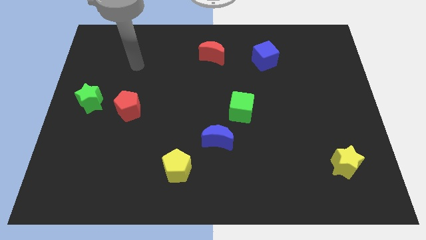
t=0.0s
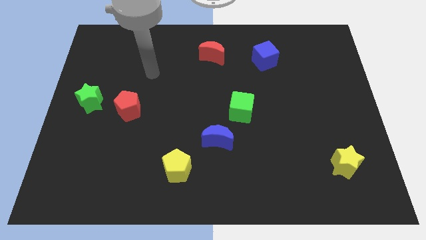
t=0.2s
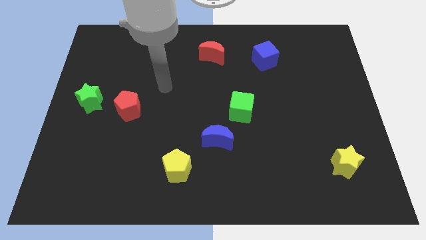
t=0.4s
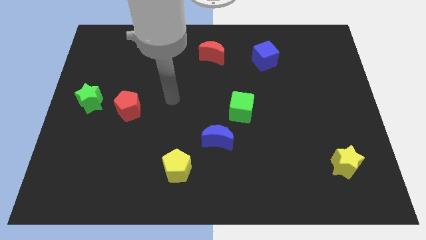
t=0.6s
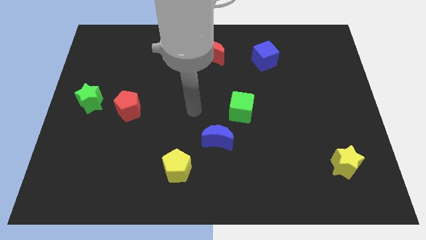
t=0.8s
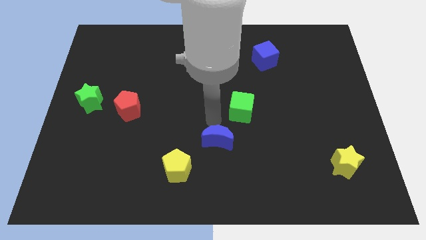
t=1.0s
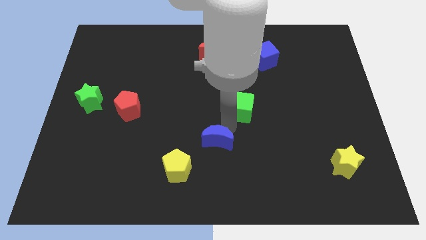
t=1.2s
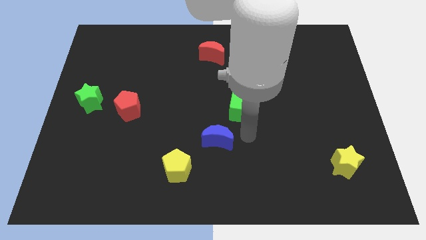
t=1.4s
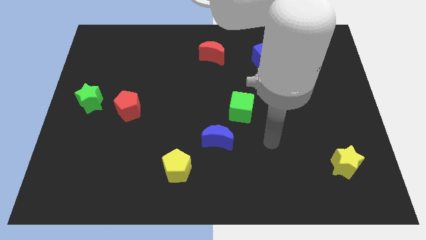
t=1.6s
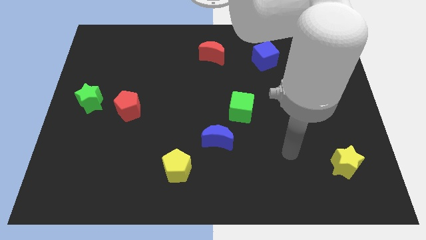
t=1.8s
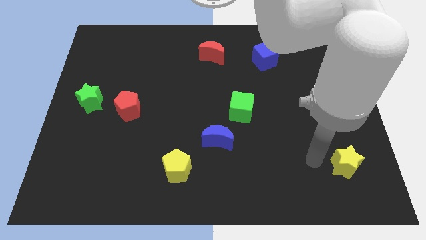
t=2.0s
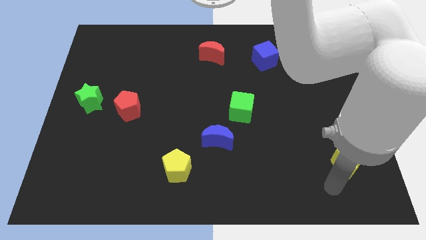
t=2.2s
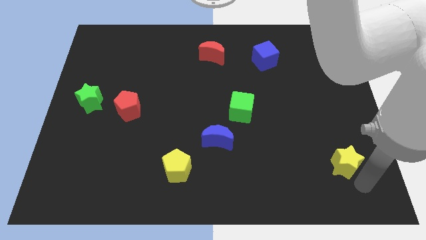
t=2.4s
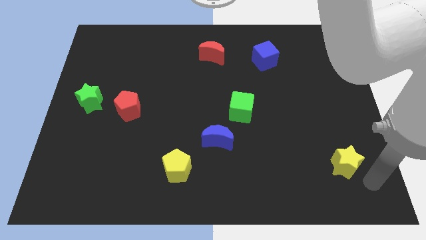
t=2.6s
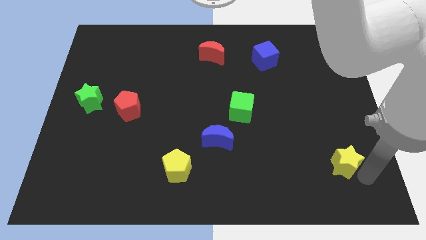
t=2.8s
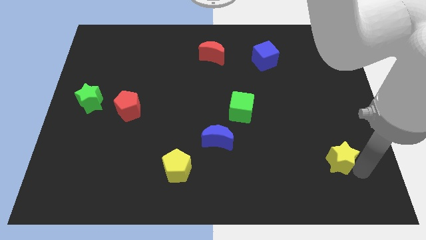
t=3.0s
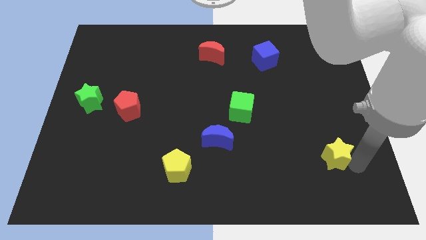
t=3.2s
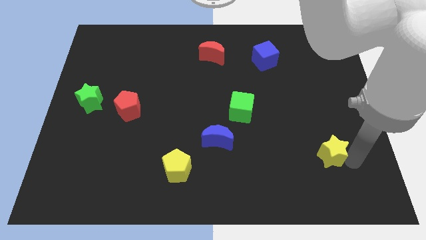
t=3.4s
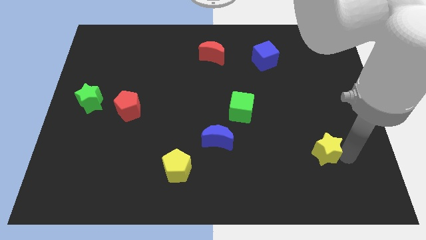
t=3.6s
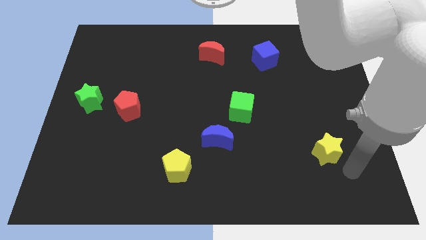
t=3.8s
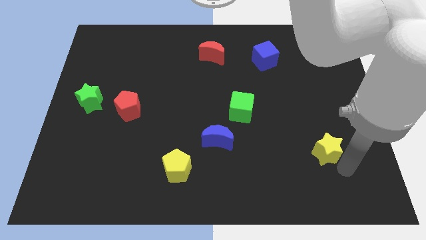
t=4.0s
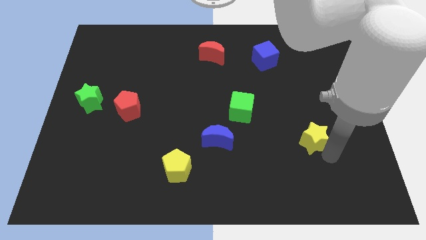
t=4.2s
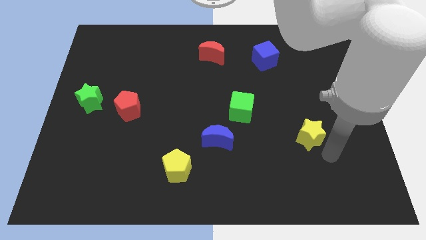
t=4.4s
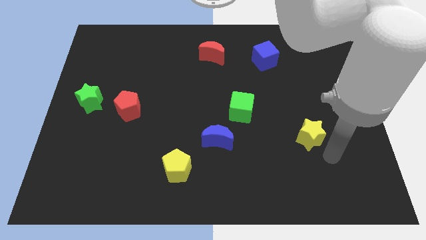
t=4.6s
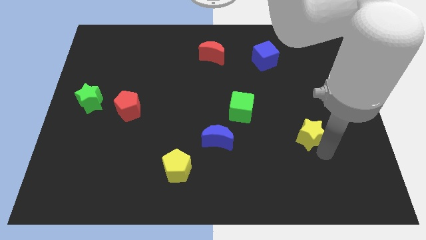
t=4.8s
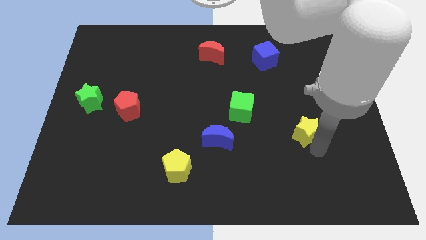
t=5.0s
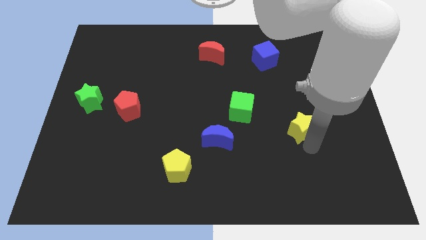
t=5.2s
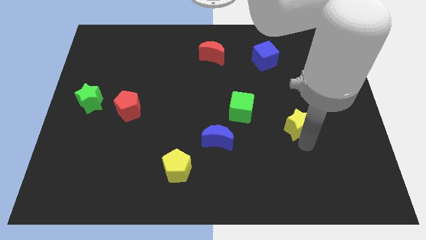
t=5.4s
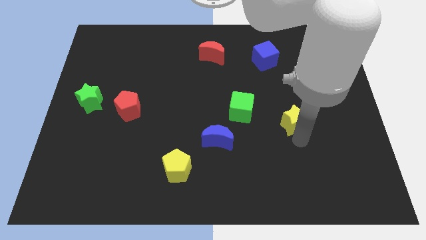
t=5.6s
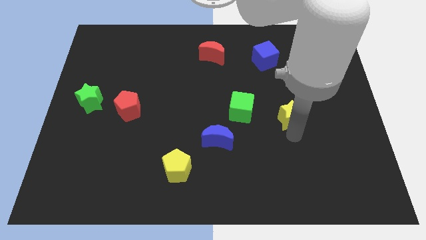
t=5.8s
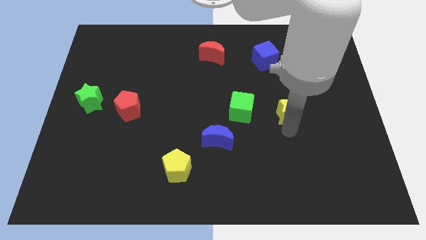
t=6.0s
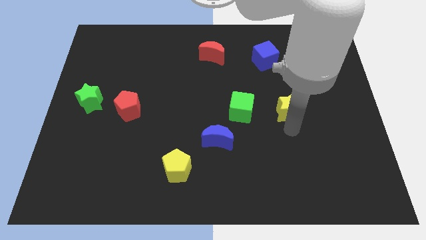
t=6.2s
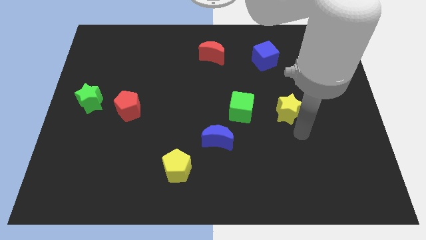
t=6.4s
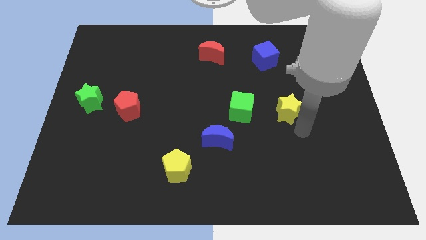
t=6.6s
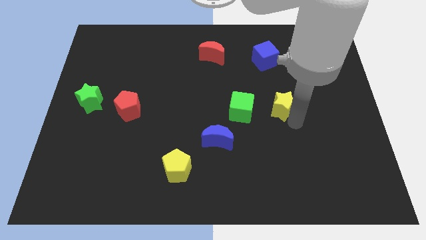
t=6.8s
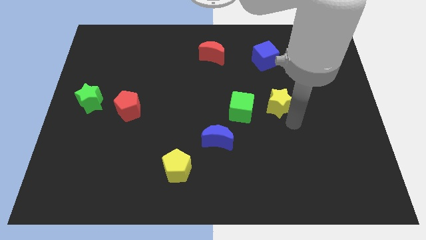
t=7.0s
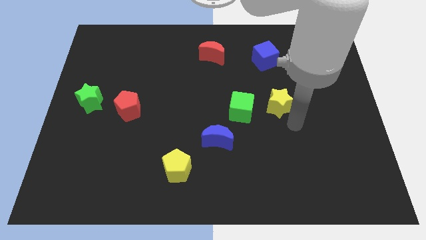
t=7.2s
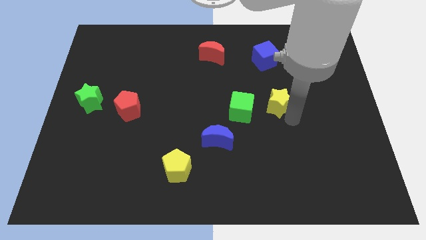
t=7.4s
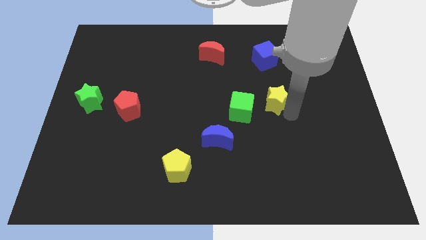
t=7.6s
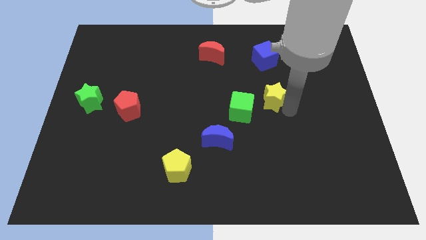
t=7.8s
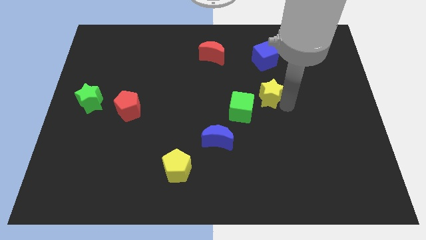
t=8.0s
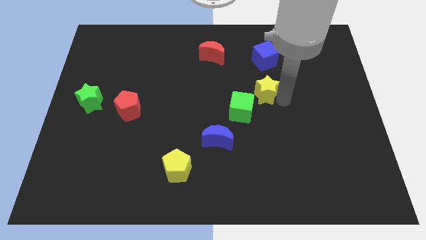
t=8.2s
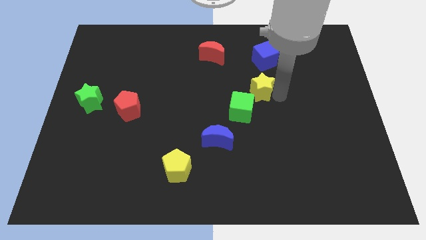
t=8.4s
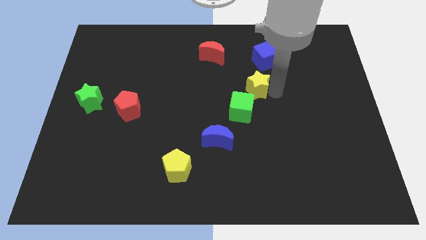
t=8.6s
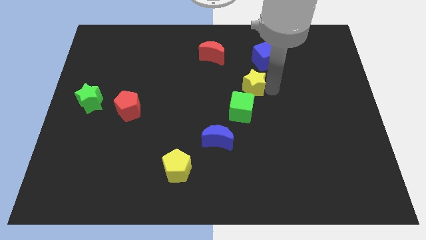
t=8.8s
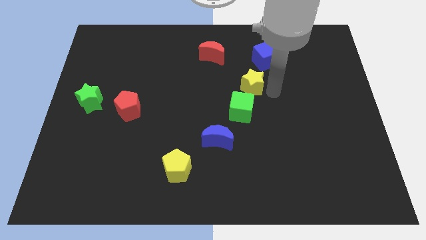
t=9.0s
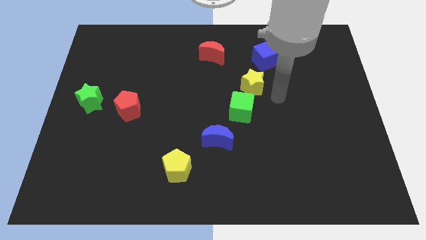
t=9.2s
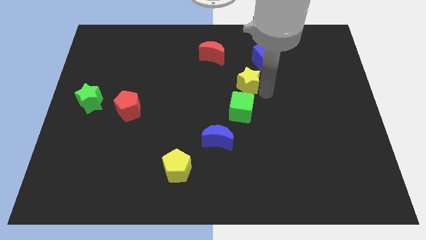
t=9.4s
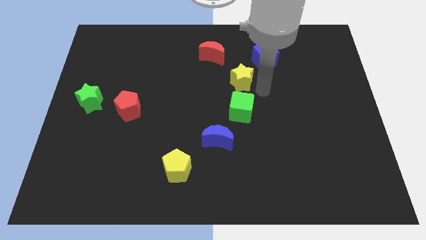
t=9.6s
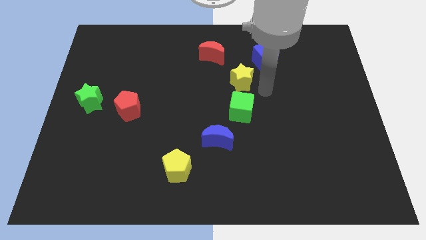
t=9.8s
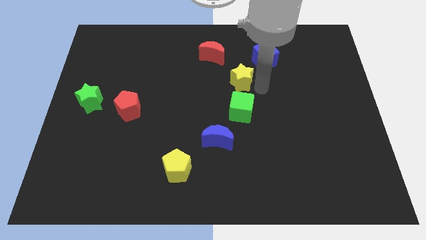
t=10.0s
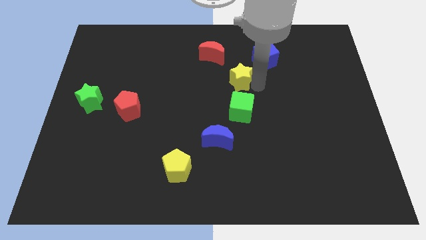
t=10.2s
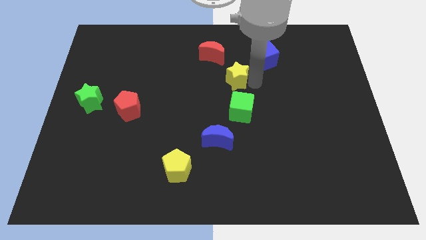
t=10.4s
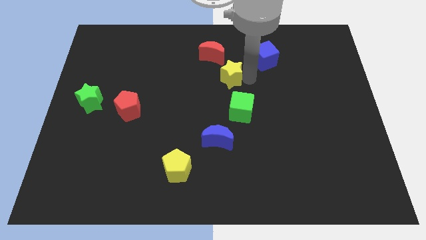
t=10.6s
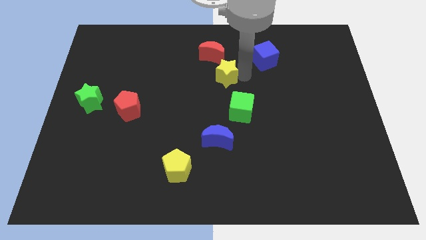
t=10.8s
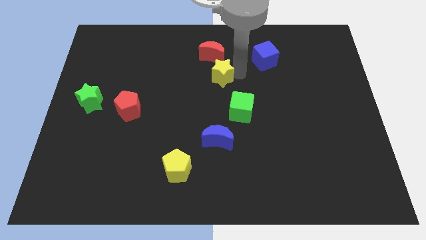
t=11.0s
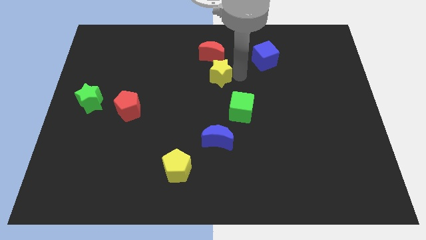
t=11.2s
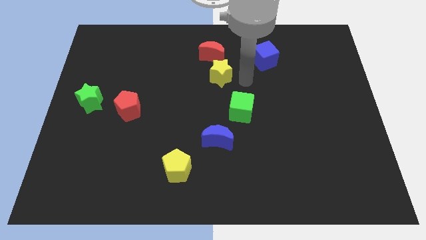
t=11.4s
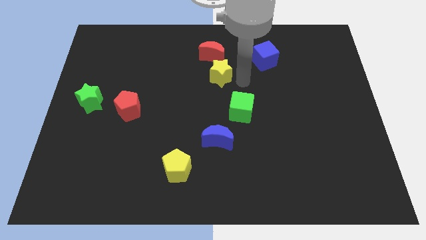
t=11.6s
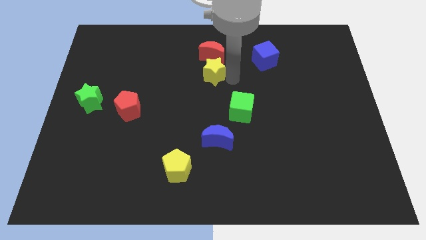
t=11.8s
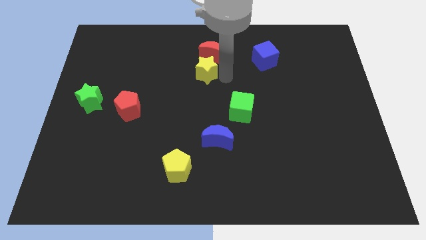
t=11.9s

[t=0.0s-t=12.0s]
move the yellow star to the bottom left side of the red moon

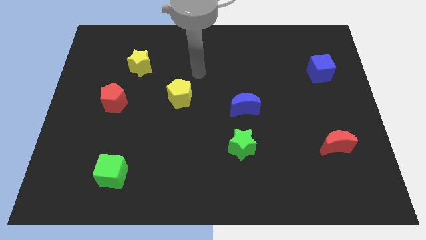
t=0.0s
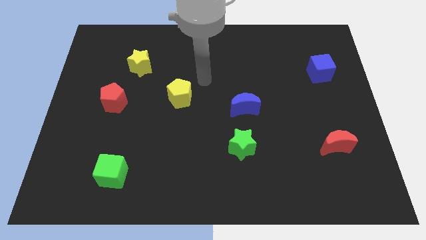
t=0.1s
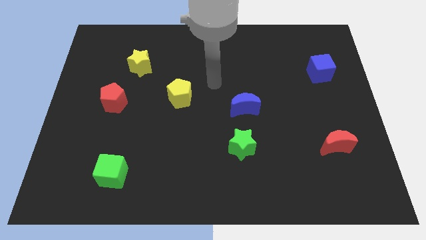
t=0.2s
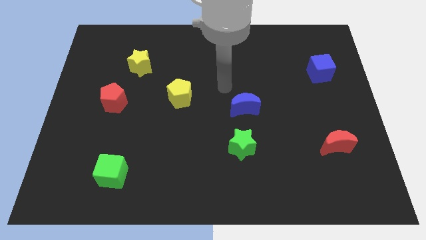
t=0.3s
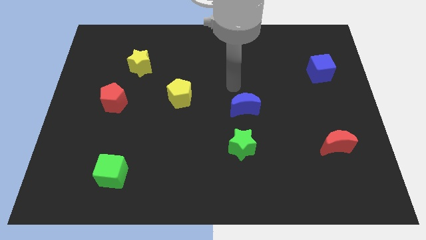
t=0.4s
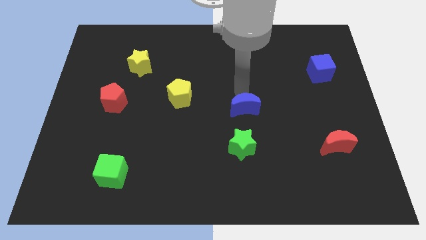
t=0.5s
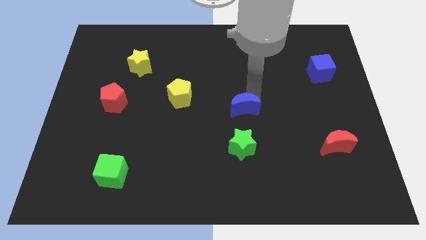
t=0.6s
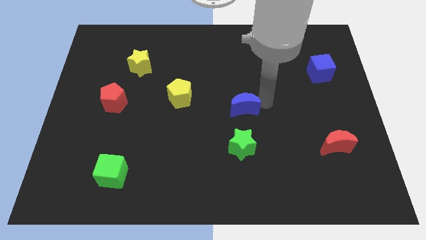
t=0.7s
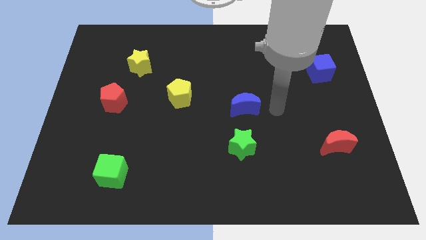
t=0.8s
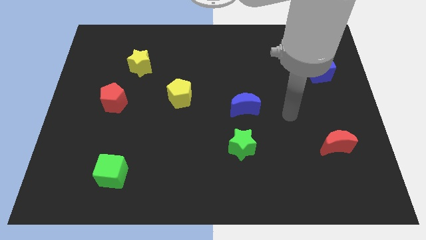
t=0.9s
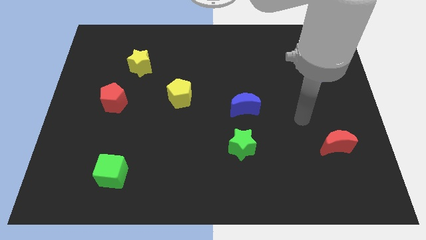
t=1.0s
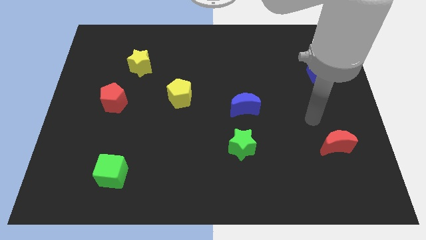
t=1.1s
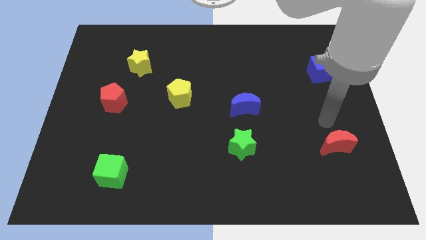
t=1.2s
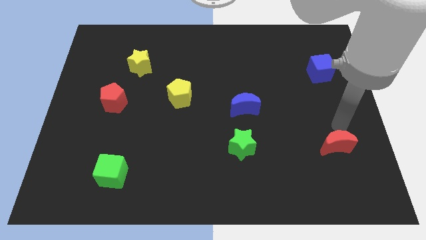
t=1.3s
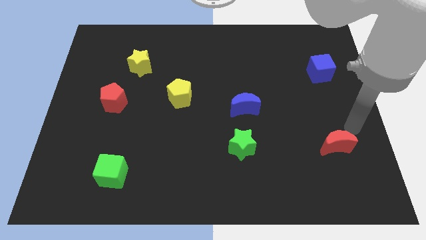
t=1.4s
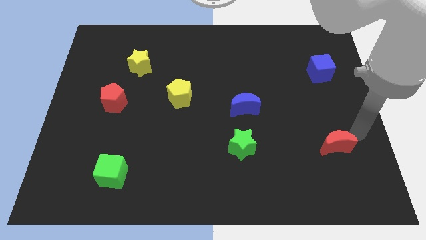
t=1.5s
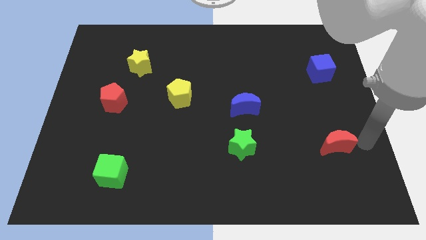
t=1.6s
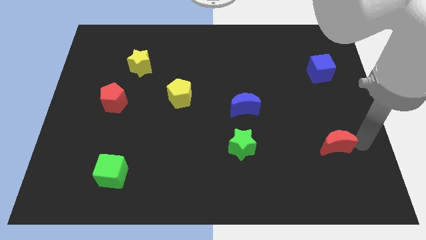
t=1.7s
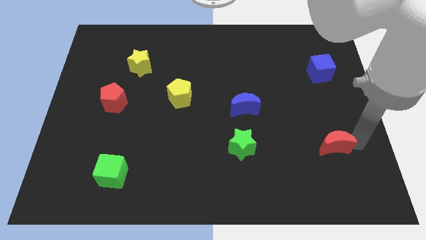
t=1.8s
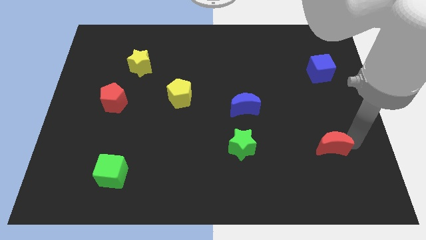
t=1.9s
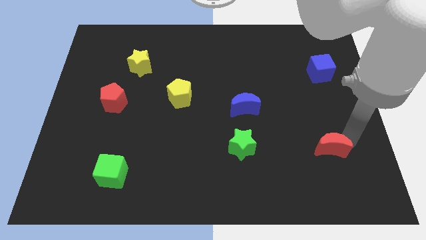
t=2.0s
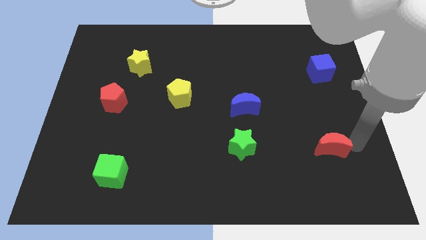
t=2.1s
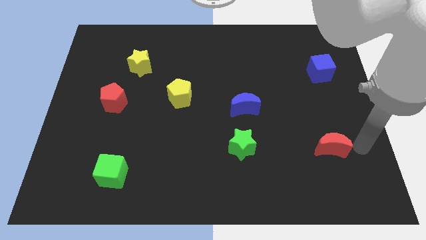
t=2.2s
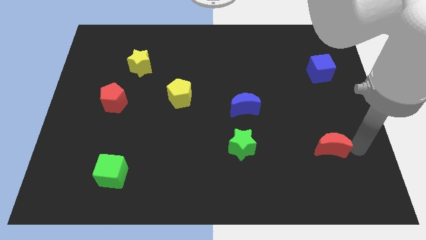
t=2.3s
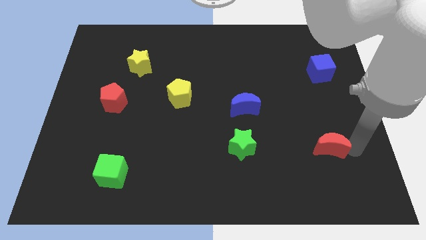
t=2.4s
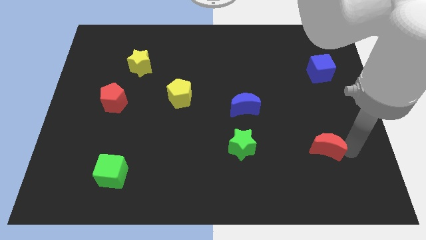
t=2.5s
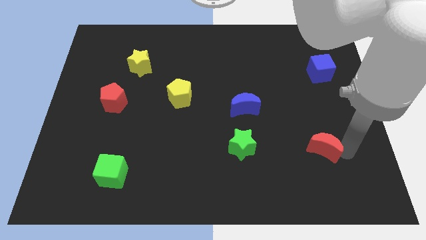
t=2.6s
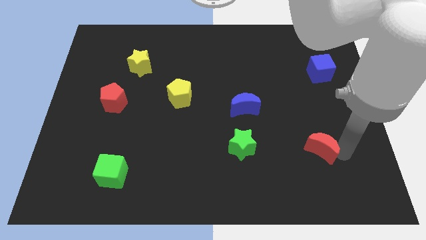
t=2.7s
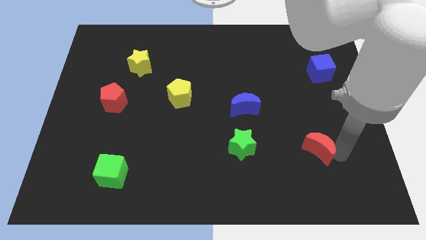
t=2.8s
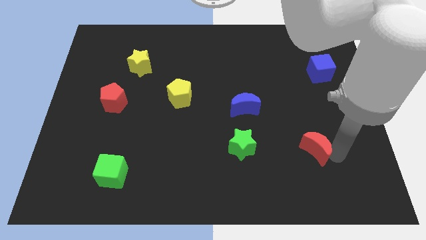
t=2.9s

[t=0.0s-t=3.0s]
push the red moon right of the green star
